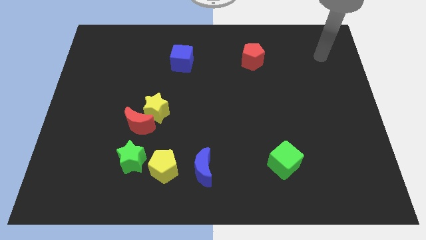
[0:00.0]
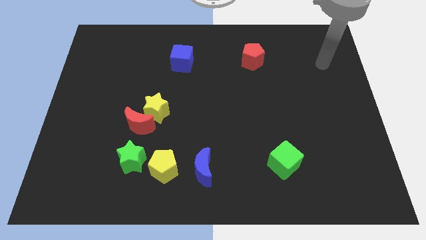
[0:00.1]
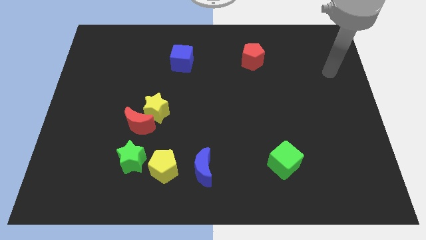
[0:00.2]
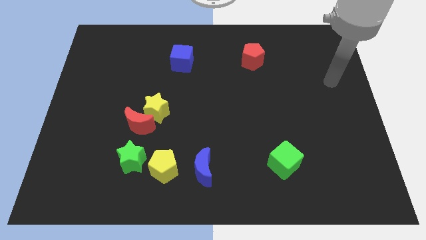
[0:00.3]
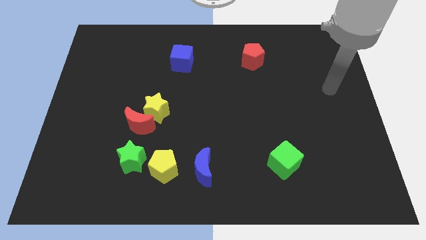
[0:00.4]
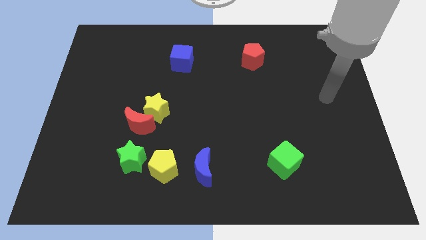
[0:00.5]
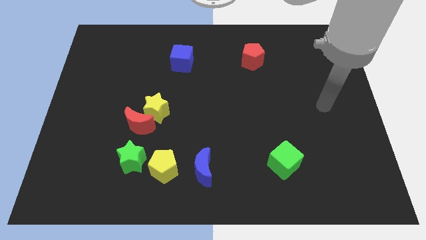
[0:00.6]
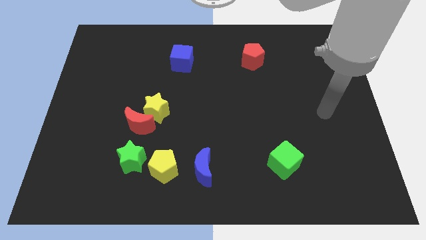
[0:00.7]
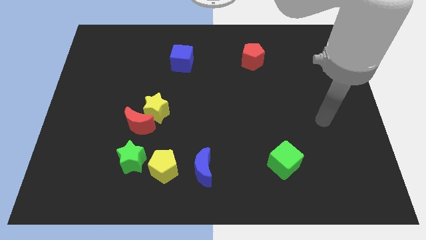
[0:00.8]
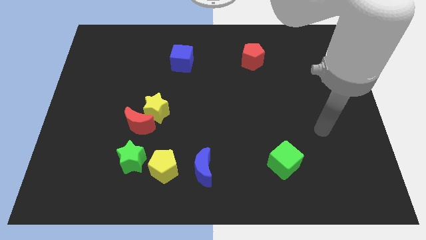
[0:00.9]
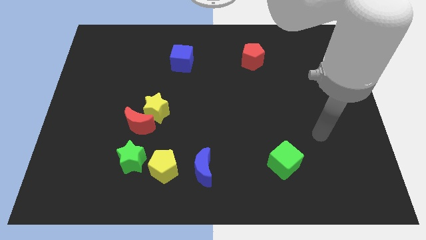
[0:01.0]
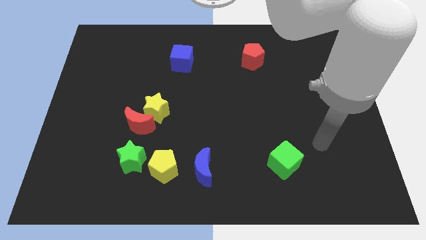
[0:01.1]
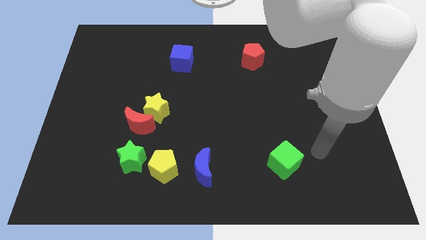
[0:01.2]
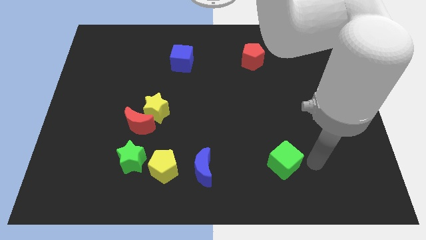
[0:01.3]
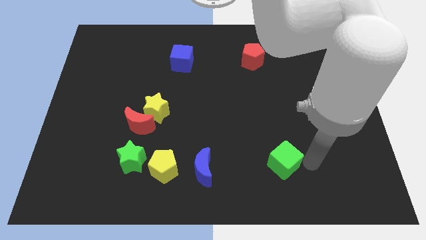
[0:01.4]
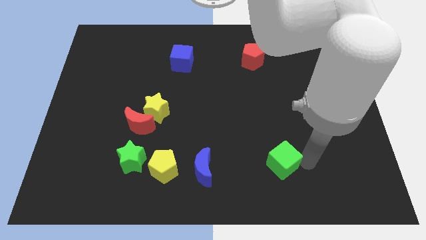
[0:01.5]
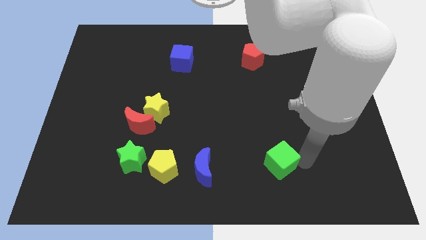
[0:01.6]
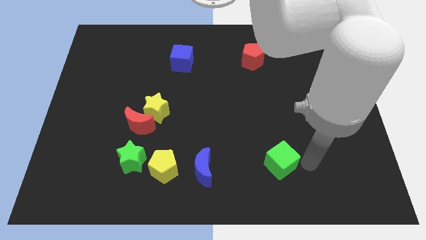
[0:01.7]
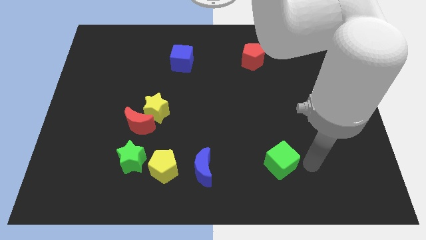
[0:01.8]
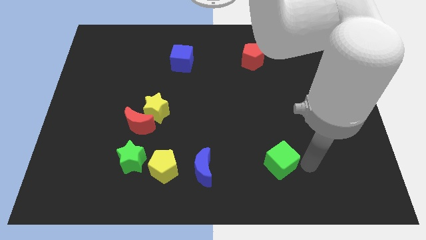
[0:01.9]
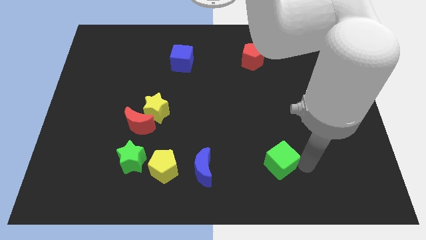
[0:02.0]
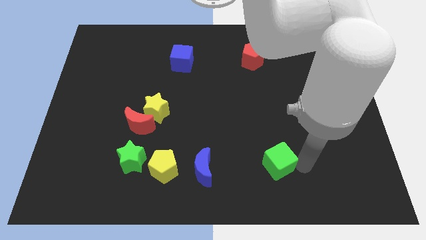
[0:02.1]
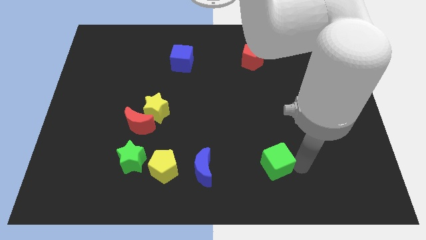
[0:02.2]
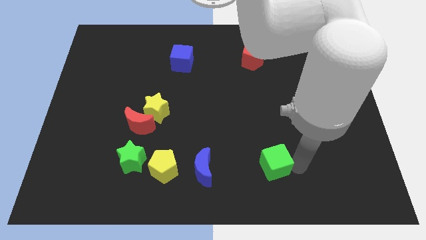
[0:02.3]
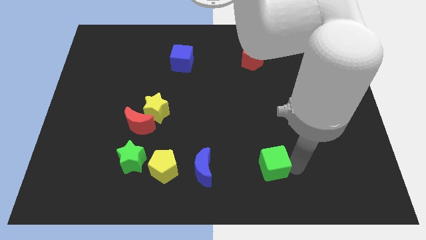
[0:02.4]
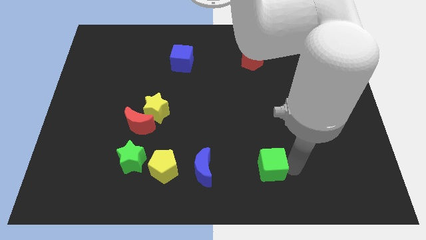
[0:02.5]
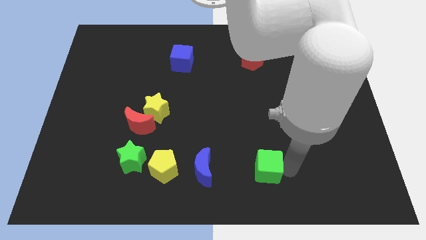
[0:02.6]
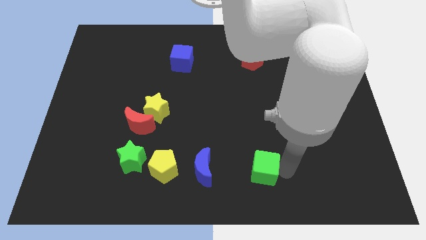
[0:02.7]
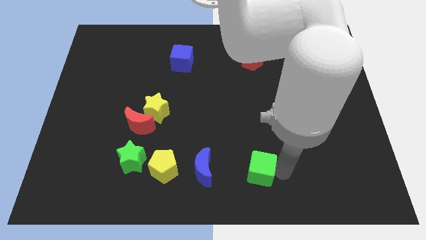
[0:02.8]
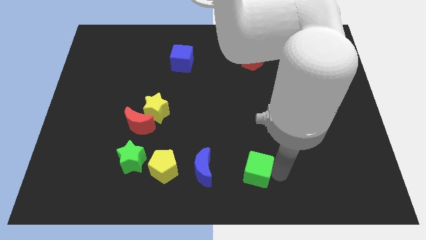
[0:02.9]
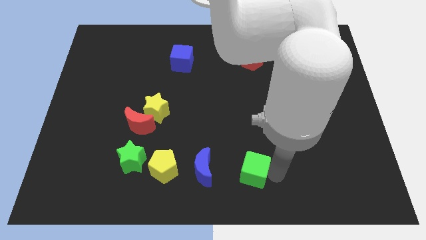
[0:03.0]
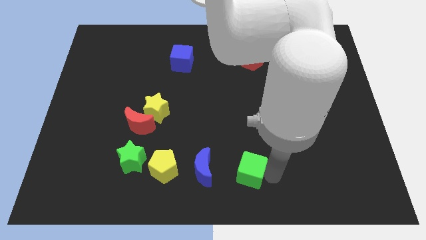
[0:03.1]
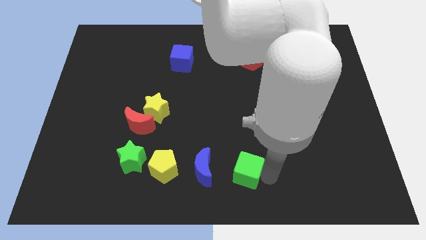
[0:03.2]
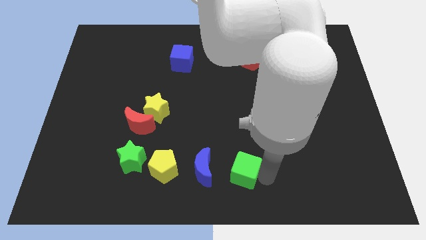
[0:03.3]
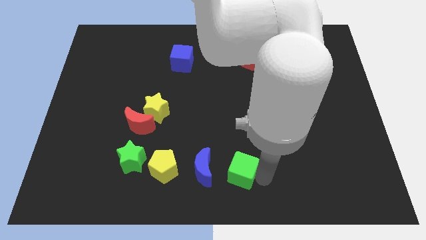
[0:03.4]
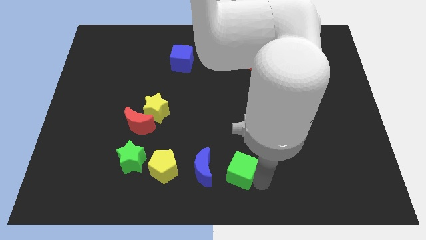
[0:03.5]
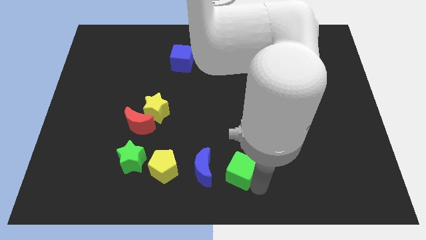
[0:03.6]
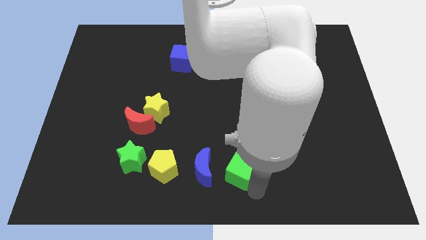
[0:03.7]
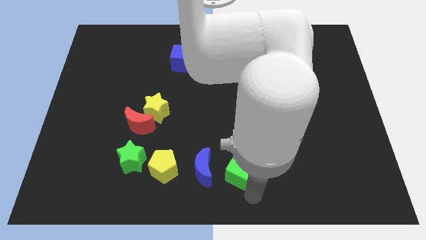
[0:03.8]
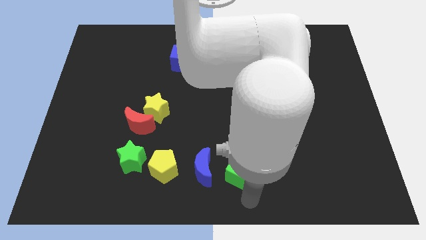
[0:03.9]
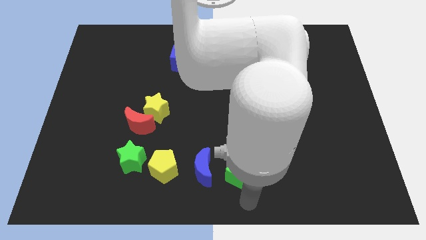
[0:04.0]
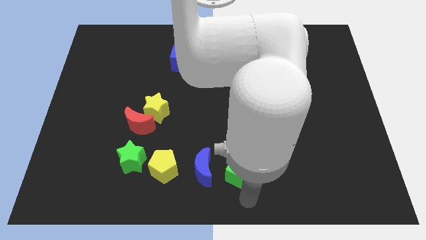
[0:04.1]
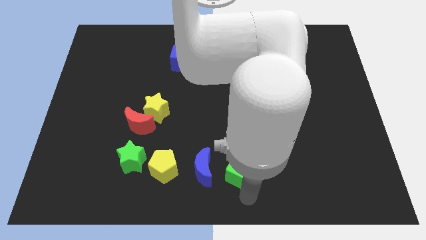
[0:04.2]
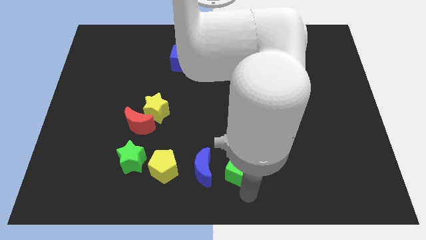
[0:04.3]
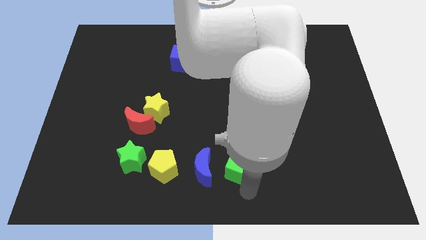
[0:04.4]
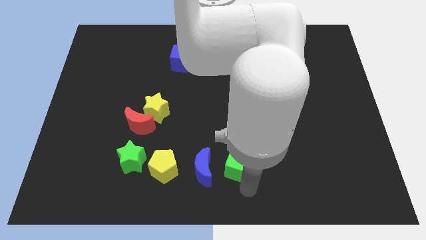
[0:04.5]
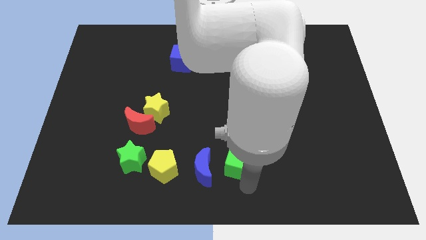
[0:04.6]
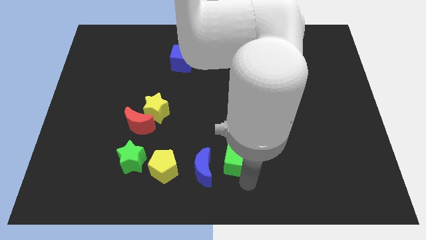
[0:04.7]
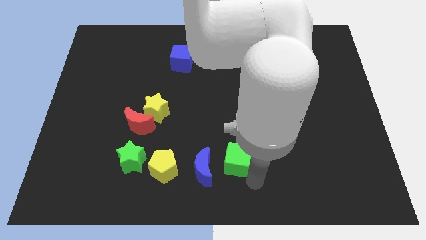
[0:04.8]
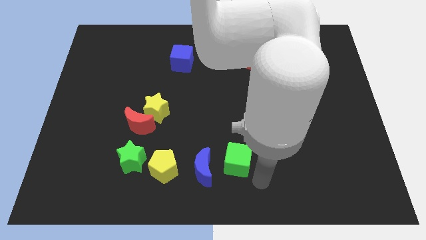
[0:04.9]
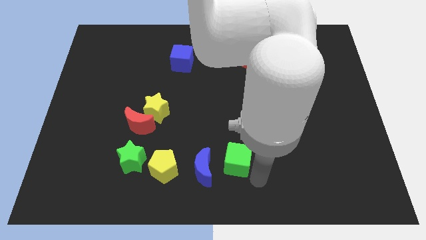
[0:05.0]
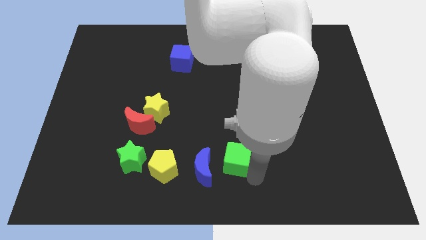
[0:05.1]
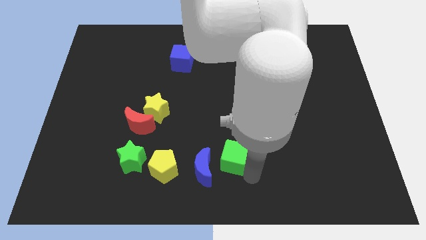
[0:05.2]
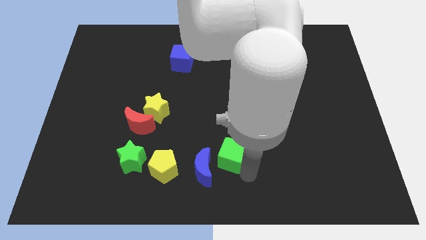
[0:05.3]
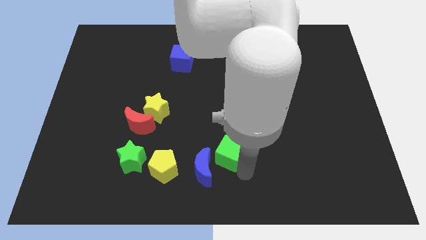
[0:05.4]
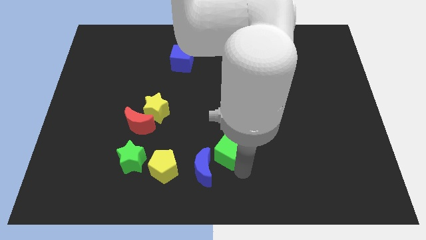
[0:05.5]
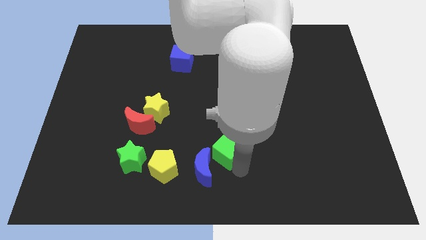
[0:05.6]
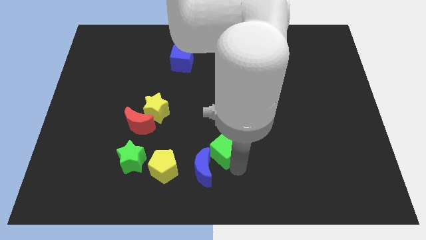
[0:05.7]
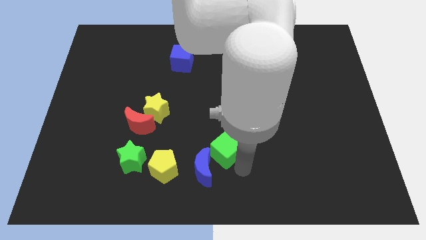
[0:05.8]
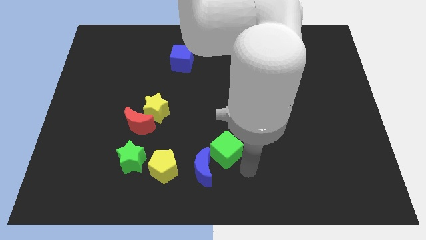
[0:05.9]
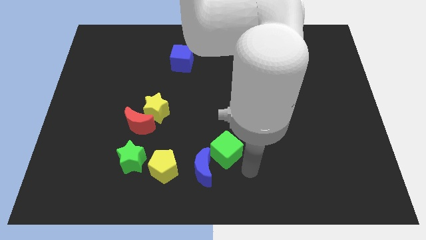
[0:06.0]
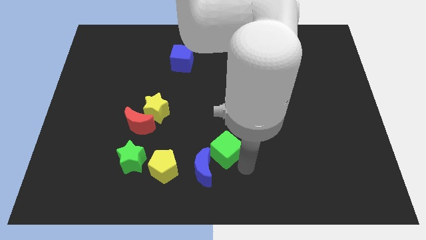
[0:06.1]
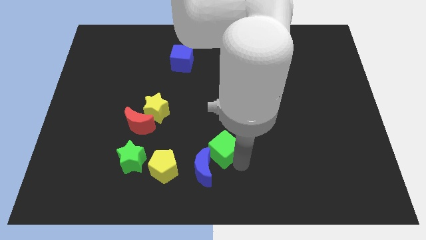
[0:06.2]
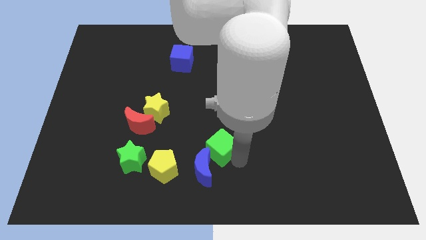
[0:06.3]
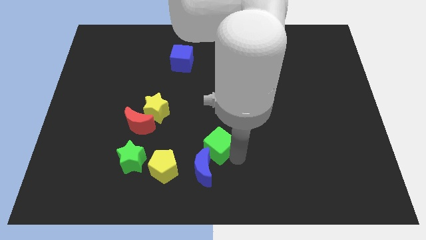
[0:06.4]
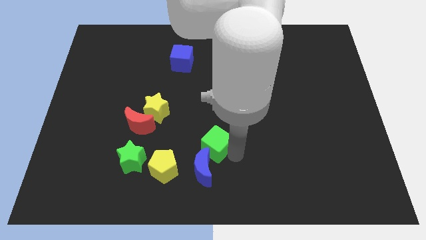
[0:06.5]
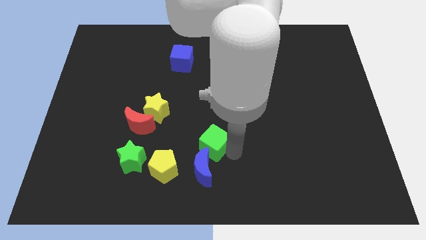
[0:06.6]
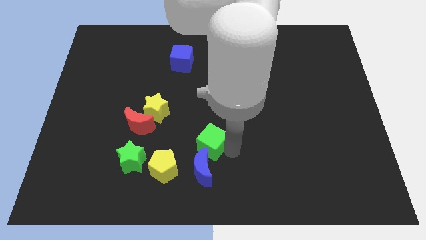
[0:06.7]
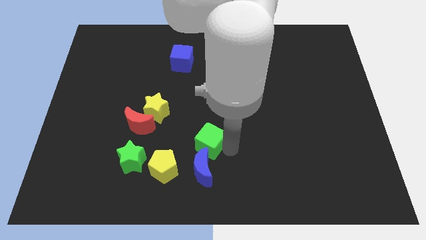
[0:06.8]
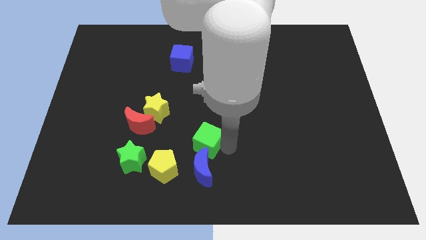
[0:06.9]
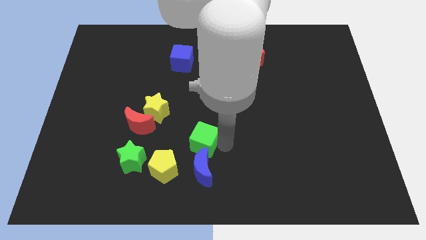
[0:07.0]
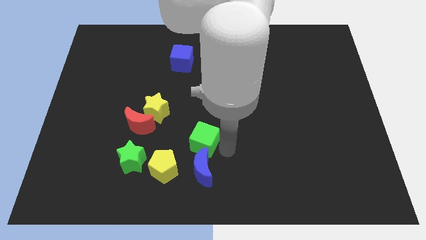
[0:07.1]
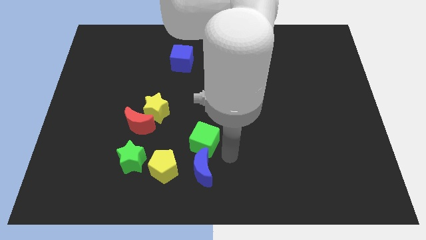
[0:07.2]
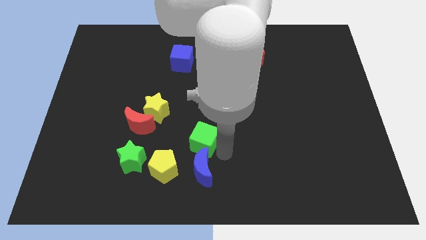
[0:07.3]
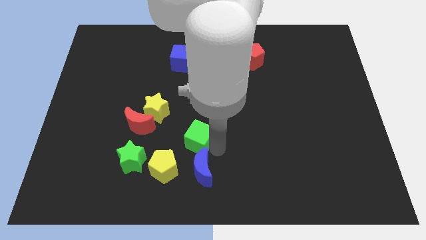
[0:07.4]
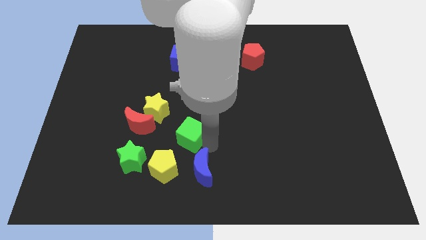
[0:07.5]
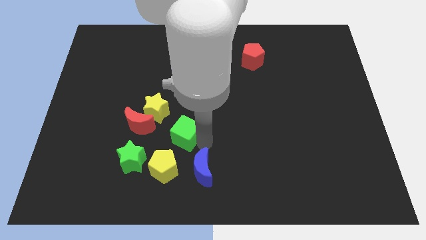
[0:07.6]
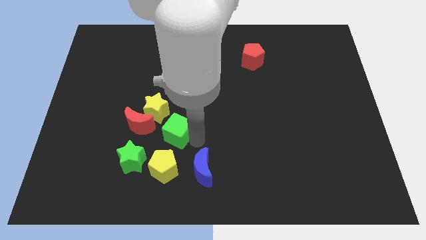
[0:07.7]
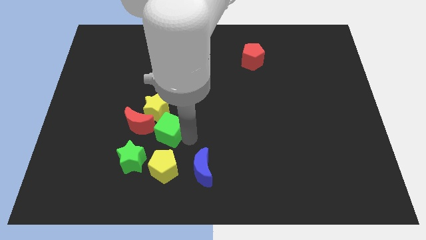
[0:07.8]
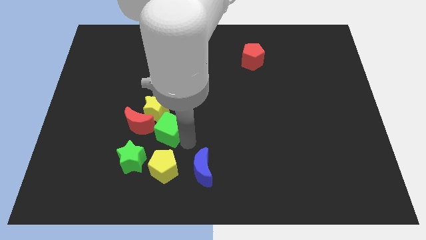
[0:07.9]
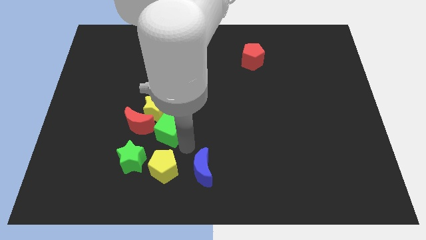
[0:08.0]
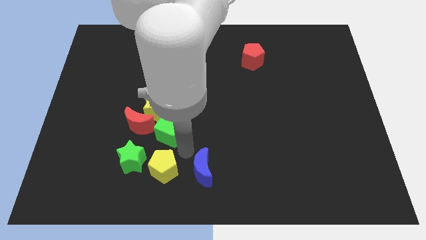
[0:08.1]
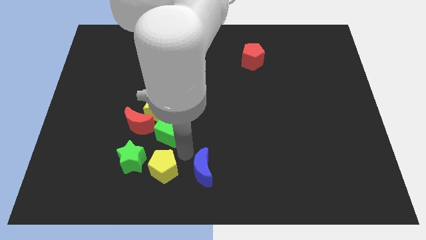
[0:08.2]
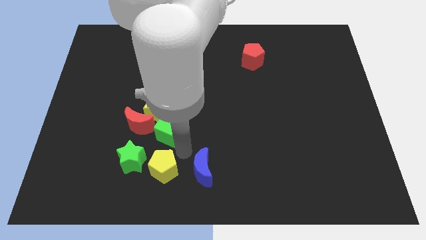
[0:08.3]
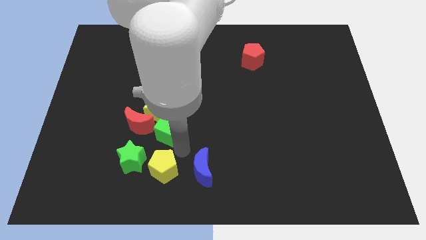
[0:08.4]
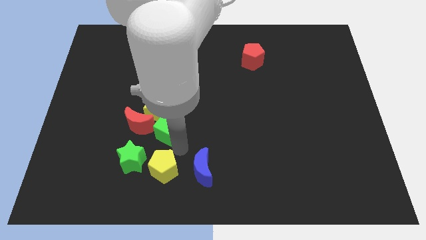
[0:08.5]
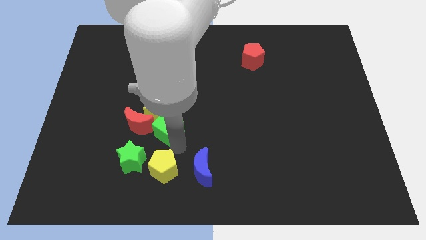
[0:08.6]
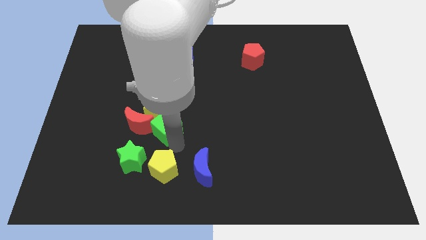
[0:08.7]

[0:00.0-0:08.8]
put the green cube next to the yellow star
